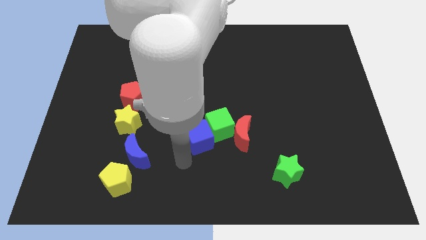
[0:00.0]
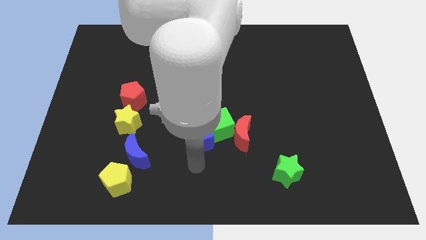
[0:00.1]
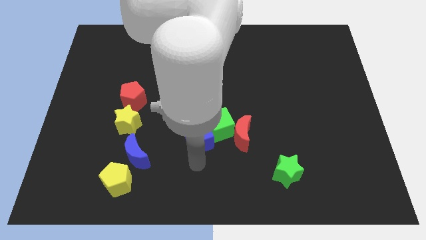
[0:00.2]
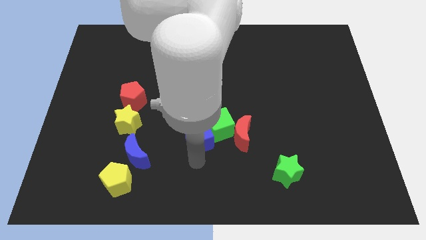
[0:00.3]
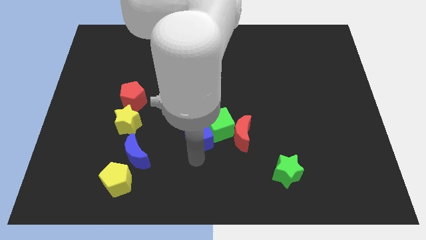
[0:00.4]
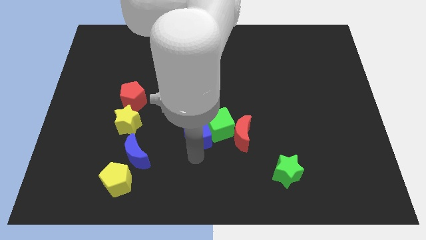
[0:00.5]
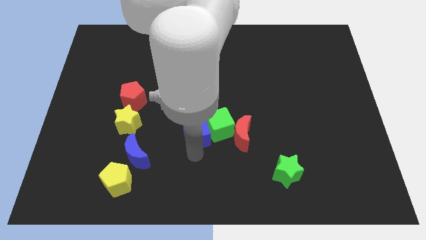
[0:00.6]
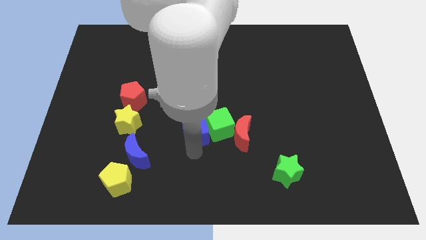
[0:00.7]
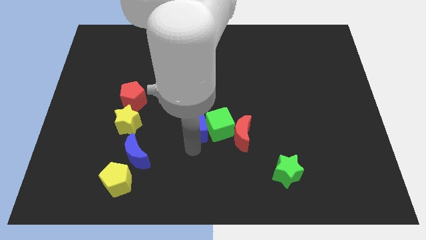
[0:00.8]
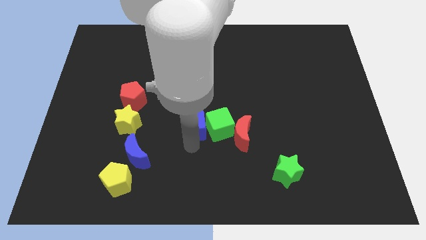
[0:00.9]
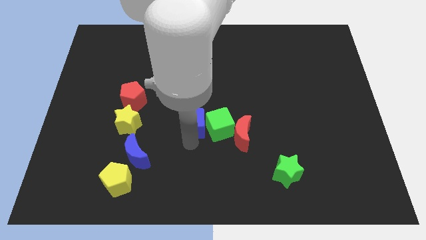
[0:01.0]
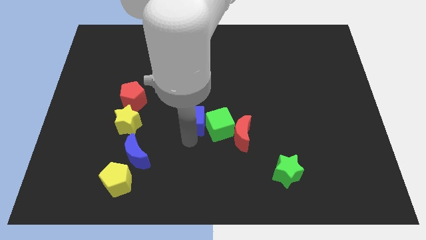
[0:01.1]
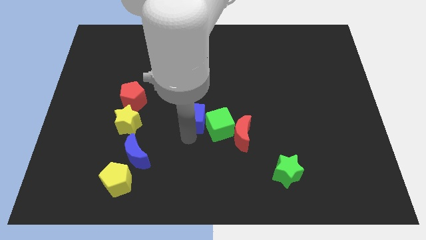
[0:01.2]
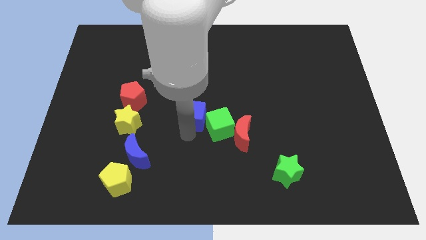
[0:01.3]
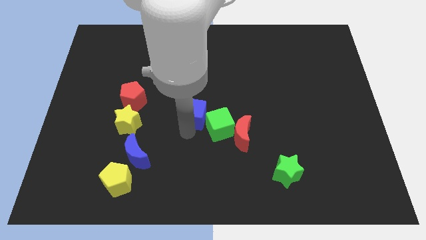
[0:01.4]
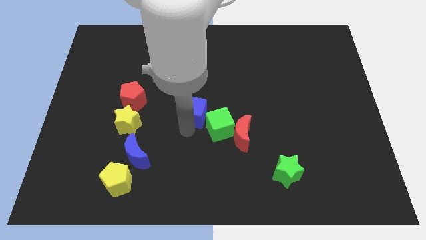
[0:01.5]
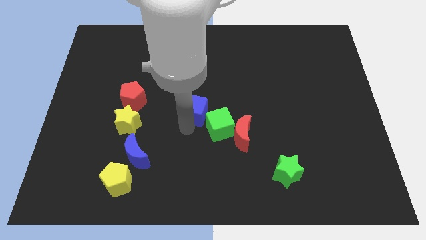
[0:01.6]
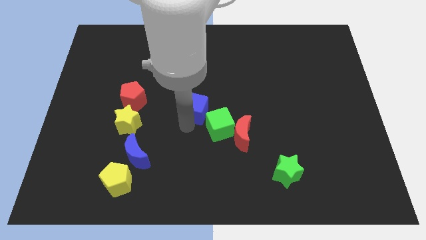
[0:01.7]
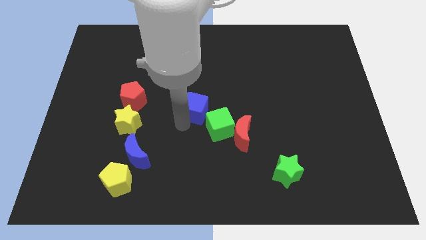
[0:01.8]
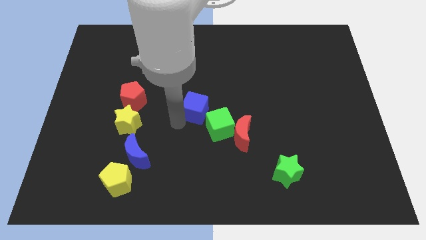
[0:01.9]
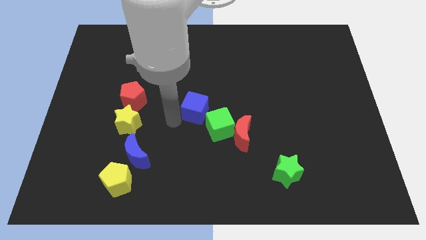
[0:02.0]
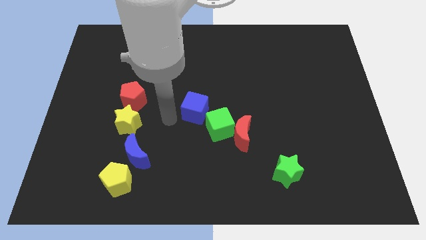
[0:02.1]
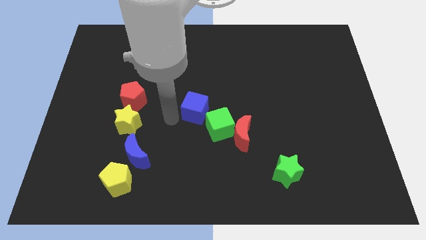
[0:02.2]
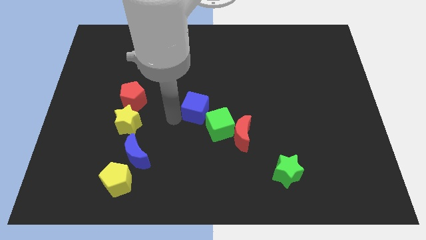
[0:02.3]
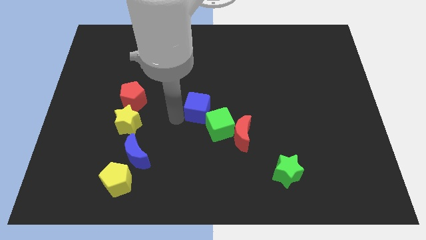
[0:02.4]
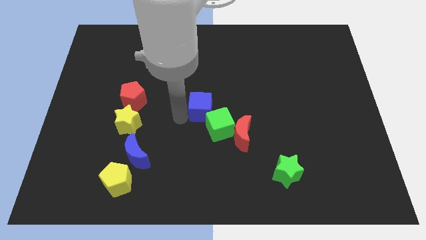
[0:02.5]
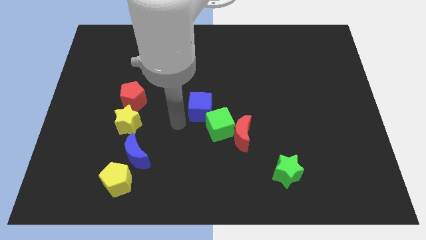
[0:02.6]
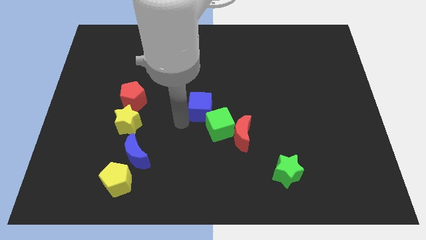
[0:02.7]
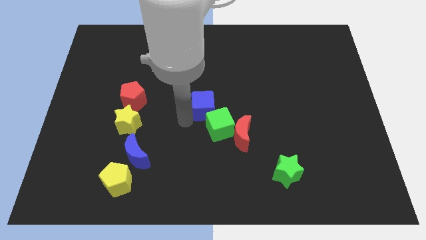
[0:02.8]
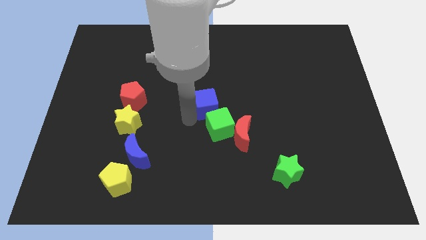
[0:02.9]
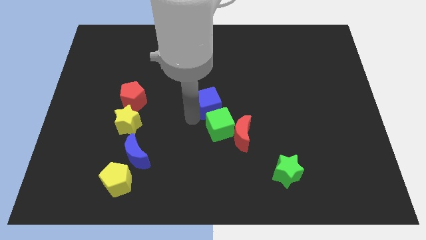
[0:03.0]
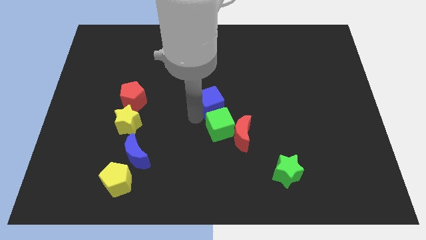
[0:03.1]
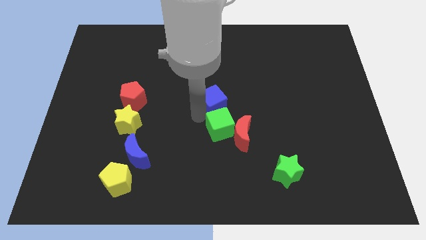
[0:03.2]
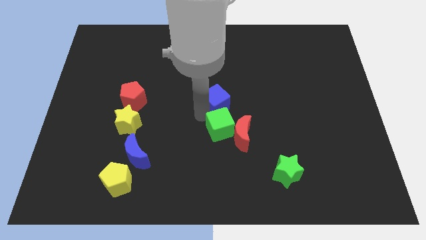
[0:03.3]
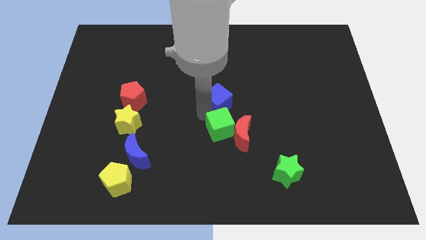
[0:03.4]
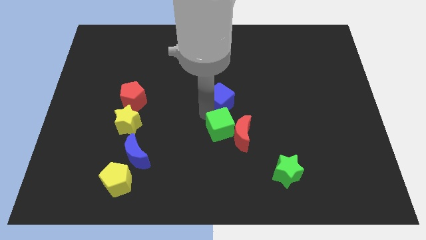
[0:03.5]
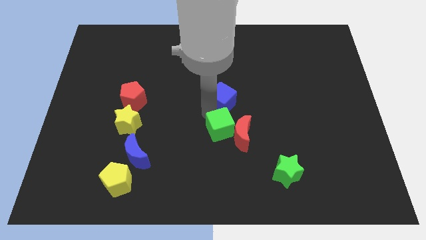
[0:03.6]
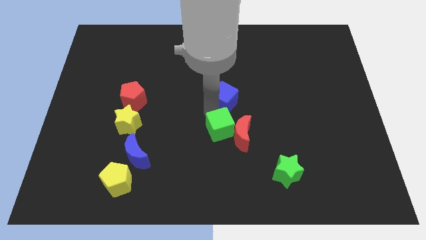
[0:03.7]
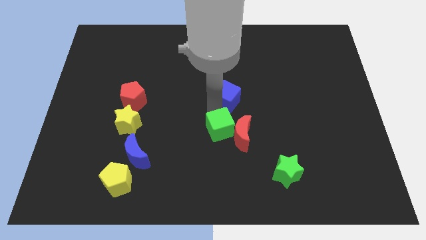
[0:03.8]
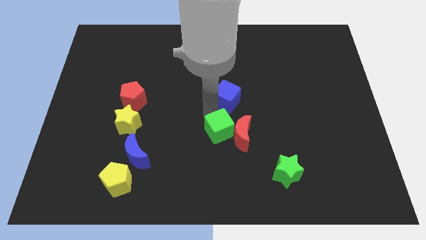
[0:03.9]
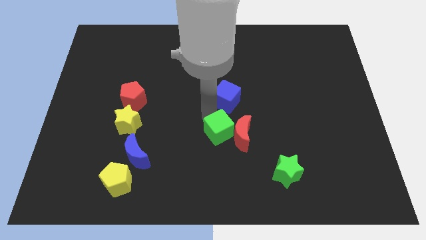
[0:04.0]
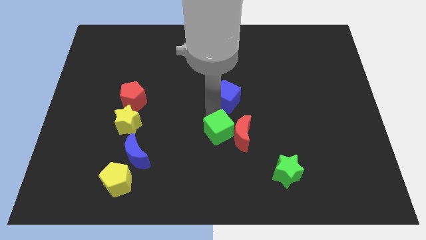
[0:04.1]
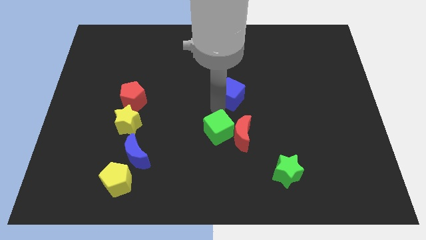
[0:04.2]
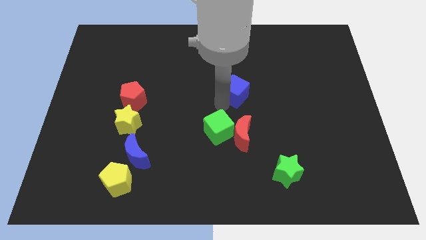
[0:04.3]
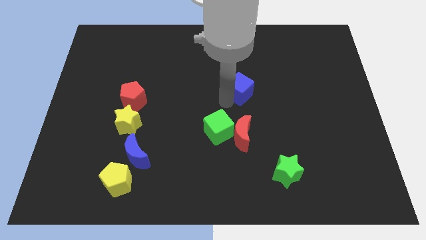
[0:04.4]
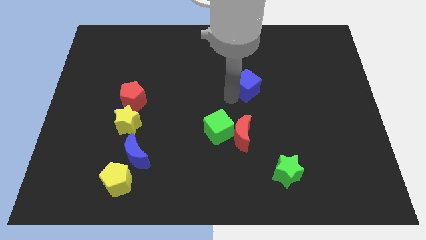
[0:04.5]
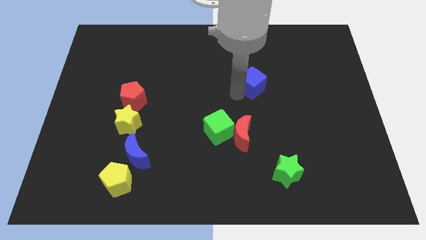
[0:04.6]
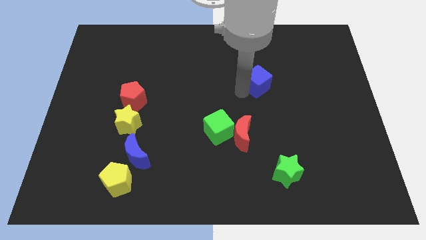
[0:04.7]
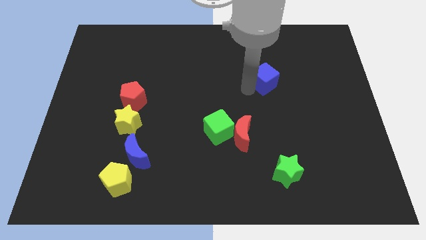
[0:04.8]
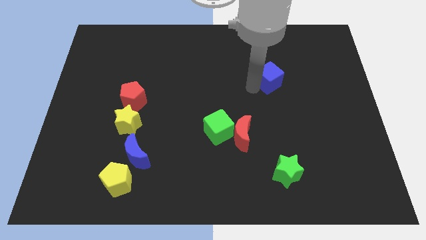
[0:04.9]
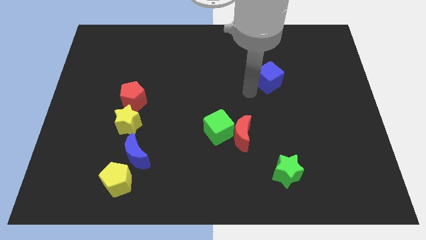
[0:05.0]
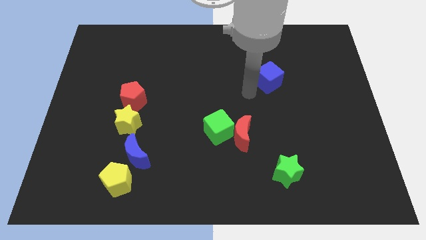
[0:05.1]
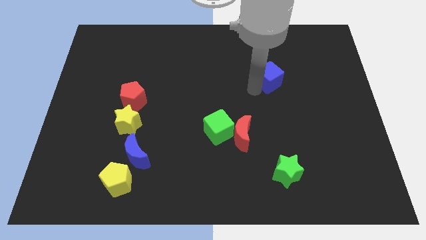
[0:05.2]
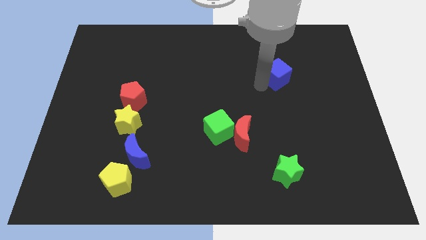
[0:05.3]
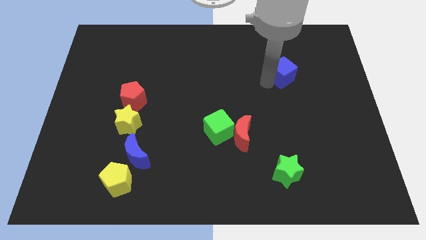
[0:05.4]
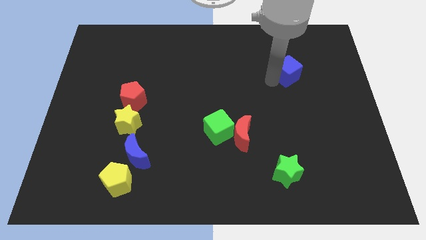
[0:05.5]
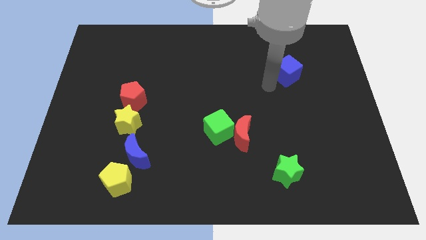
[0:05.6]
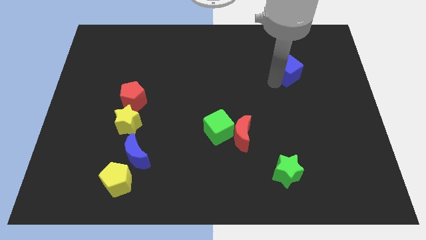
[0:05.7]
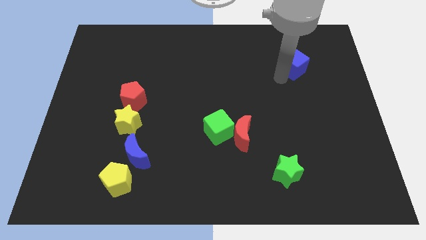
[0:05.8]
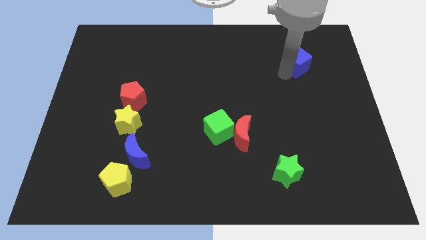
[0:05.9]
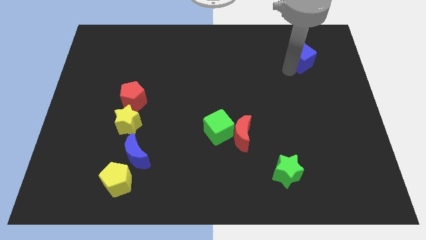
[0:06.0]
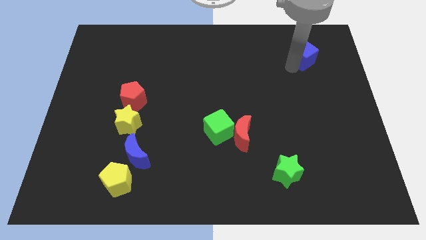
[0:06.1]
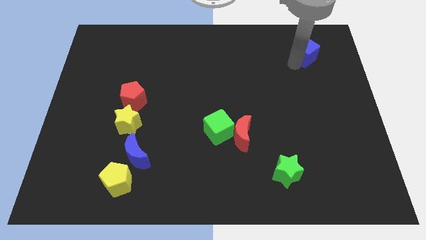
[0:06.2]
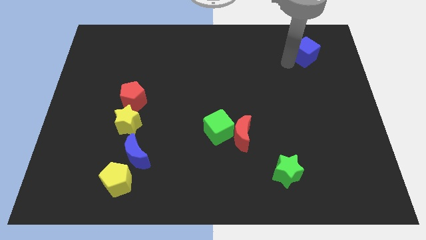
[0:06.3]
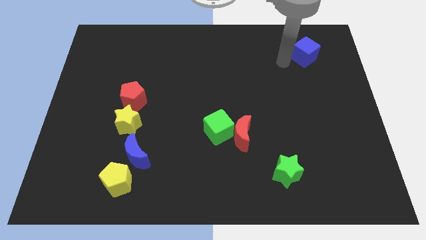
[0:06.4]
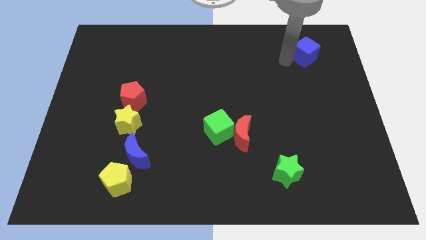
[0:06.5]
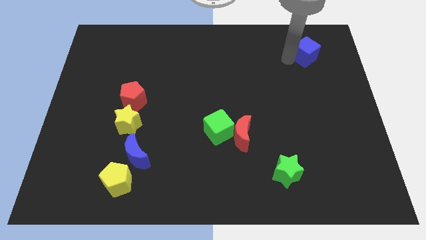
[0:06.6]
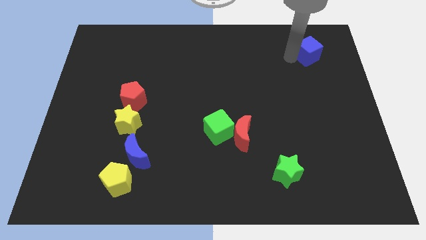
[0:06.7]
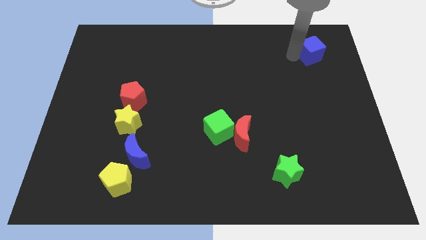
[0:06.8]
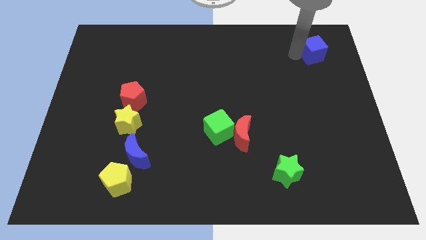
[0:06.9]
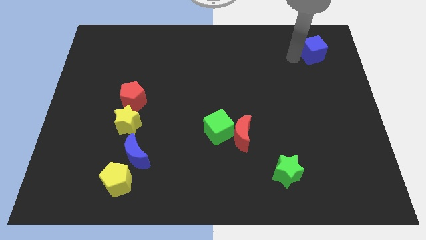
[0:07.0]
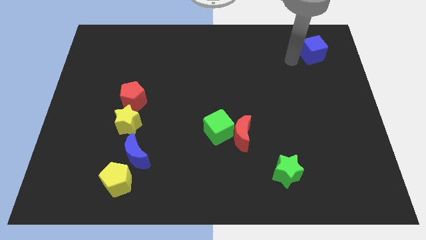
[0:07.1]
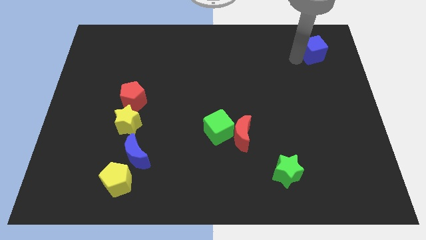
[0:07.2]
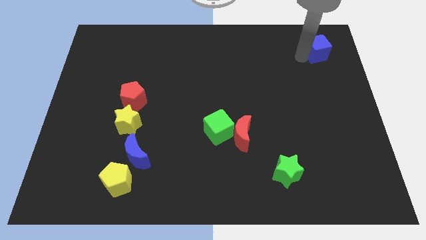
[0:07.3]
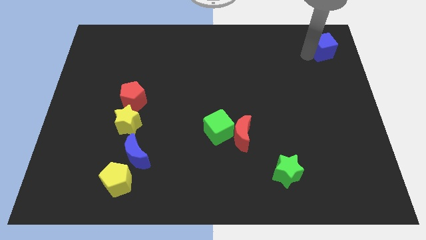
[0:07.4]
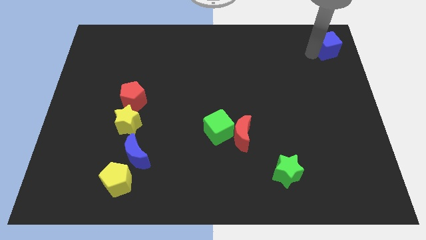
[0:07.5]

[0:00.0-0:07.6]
slide the blue cube to the top right corner
